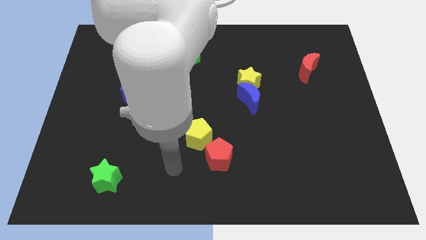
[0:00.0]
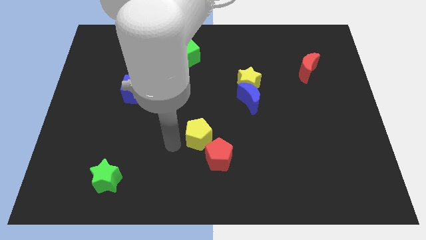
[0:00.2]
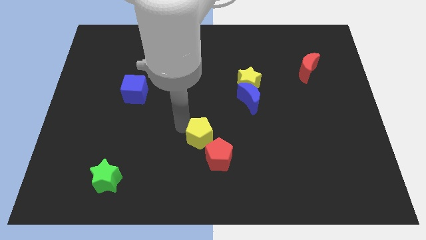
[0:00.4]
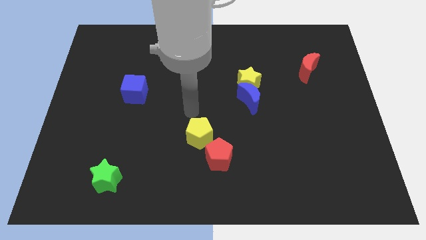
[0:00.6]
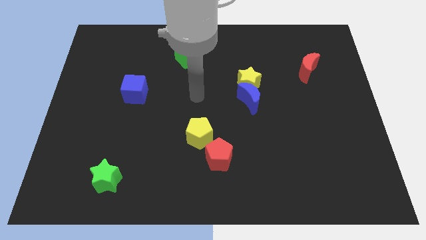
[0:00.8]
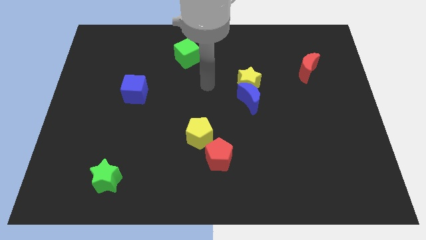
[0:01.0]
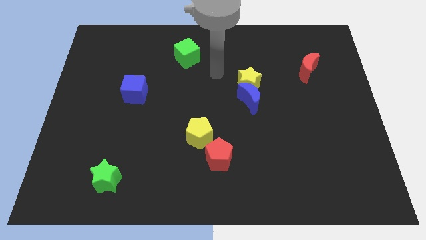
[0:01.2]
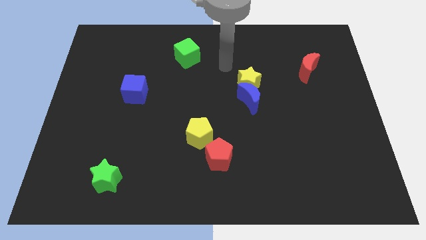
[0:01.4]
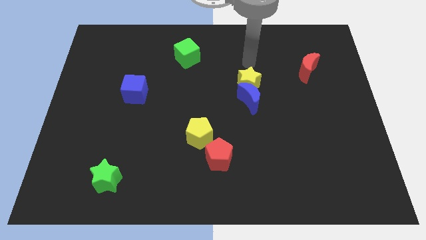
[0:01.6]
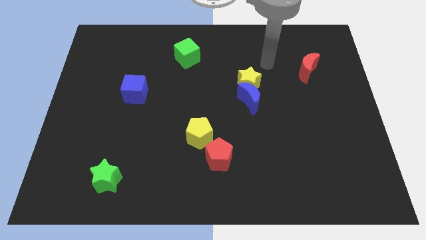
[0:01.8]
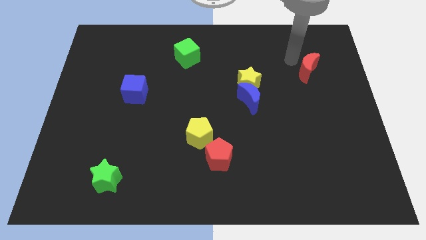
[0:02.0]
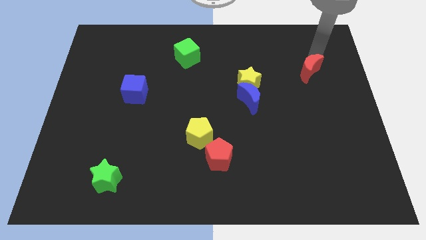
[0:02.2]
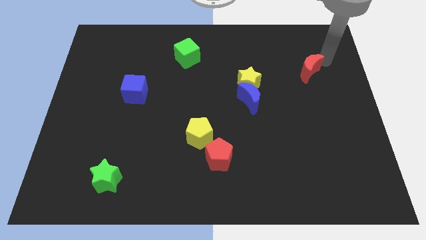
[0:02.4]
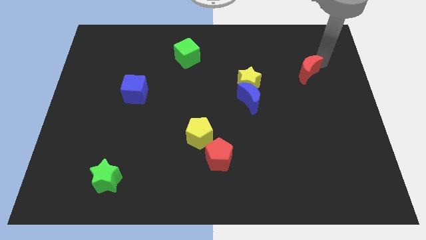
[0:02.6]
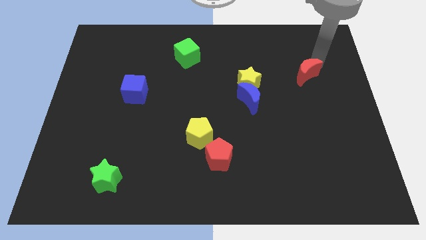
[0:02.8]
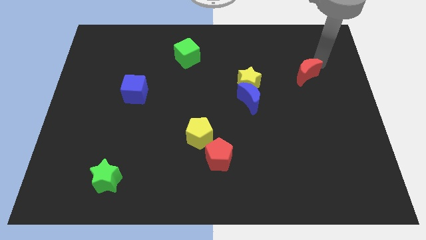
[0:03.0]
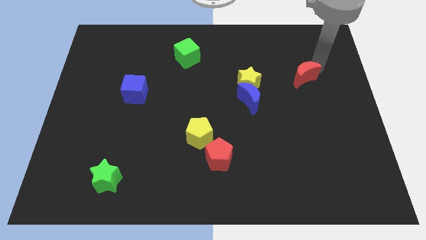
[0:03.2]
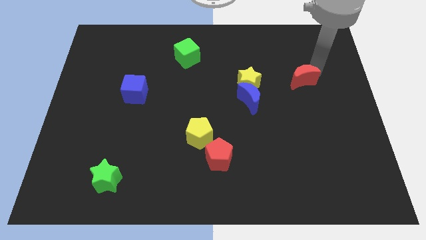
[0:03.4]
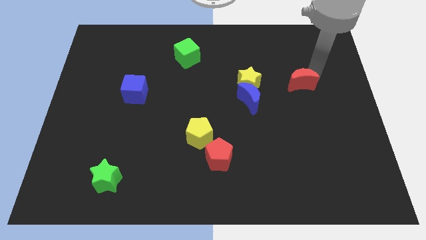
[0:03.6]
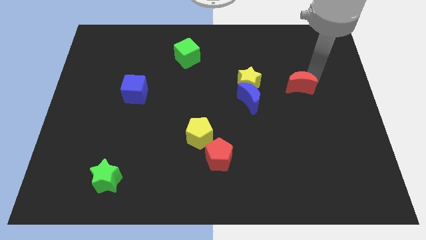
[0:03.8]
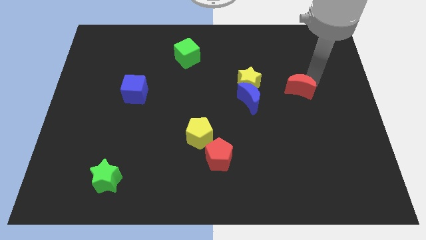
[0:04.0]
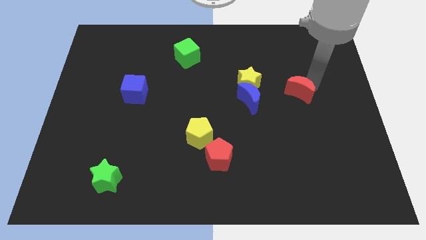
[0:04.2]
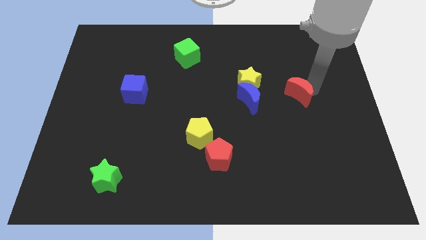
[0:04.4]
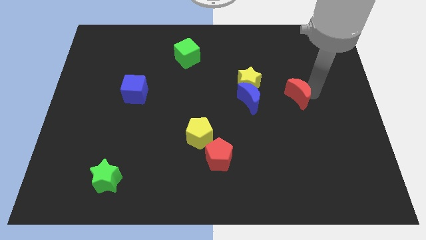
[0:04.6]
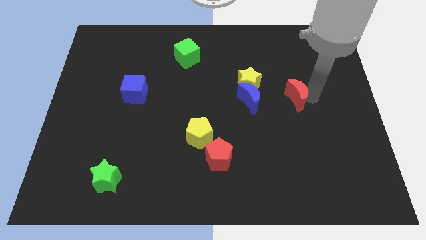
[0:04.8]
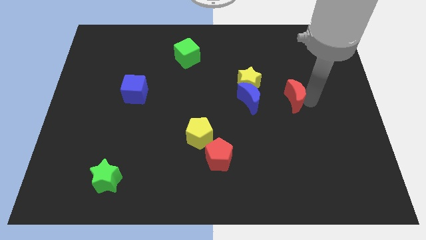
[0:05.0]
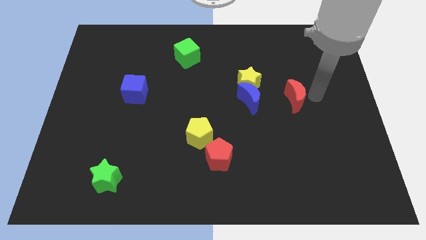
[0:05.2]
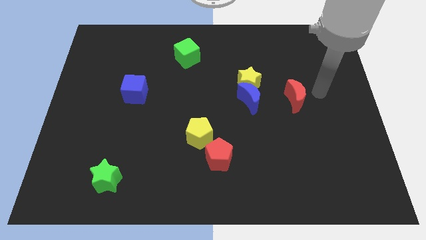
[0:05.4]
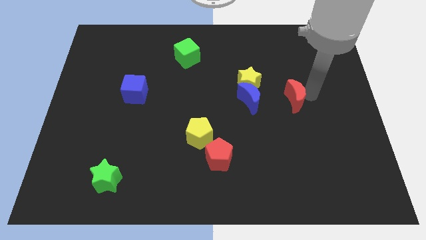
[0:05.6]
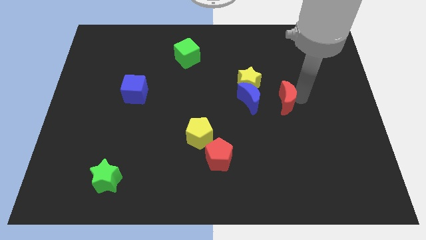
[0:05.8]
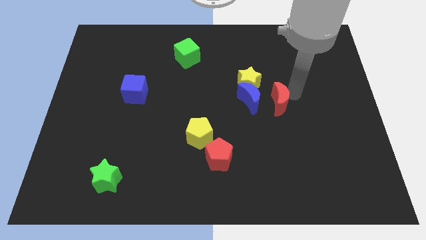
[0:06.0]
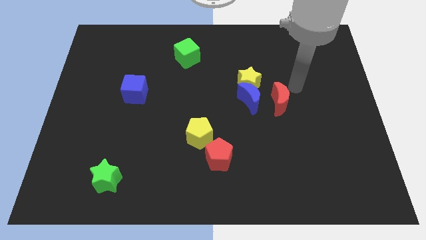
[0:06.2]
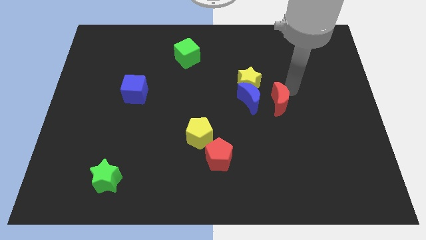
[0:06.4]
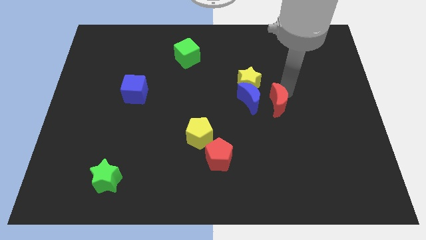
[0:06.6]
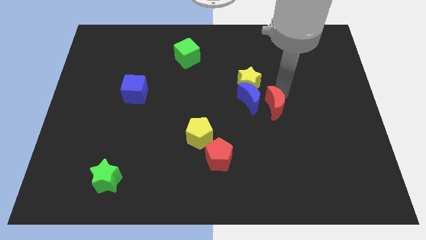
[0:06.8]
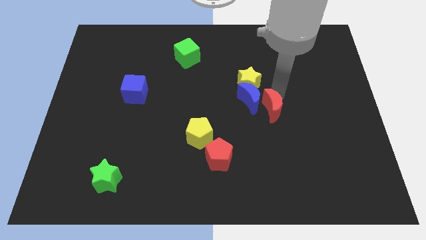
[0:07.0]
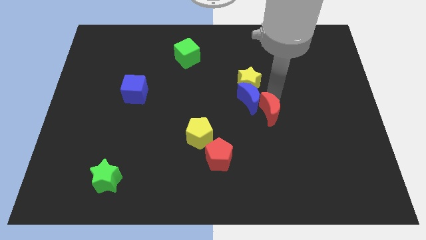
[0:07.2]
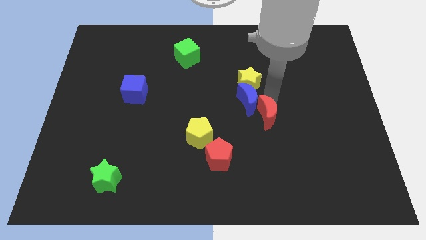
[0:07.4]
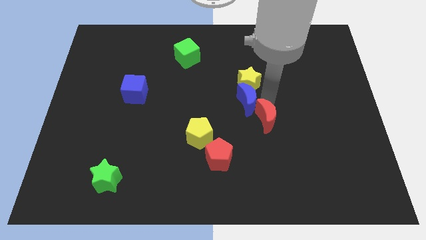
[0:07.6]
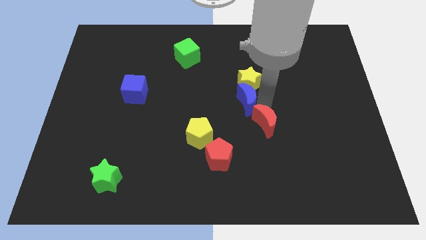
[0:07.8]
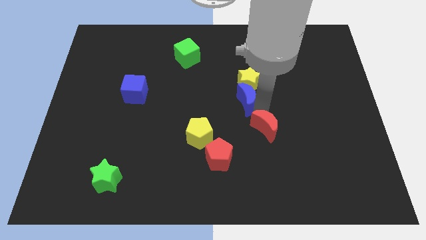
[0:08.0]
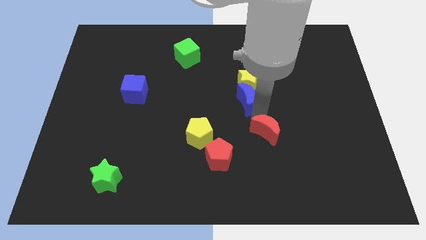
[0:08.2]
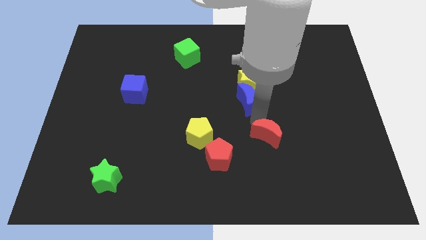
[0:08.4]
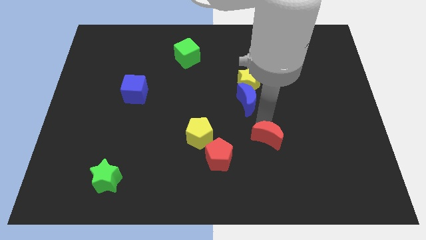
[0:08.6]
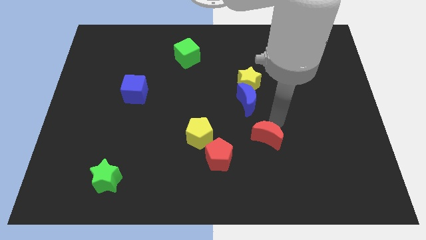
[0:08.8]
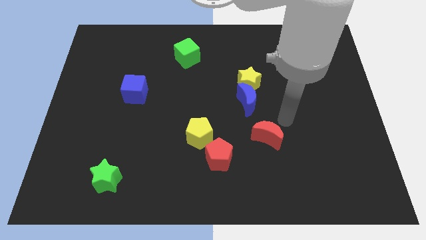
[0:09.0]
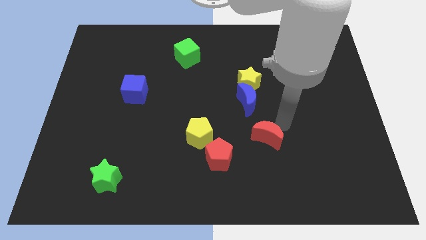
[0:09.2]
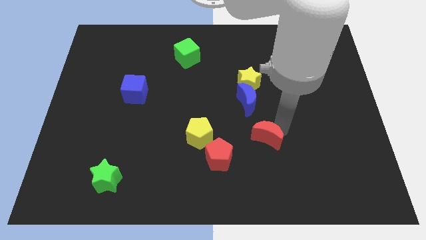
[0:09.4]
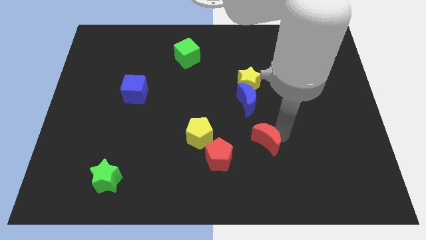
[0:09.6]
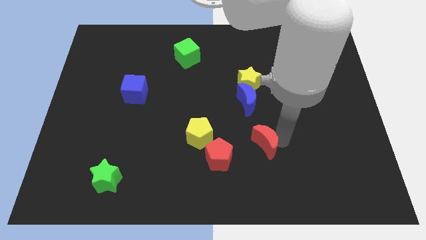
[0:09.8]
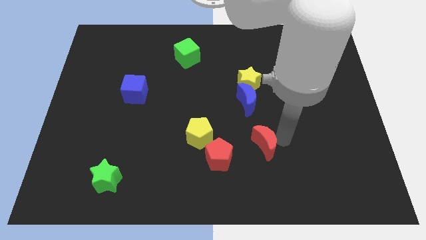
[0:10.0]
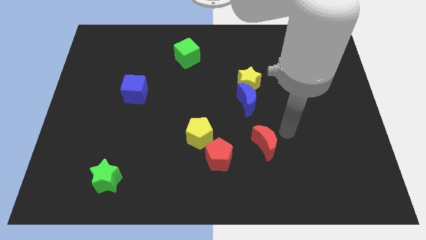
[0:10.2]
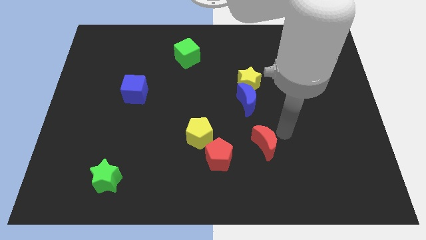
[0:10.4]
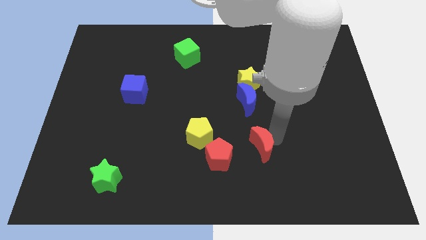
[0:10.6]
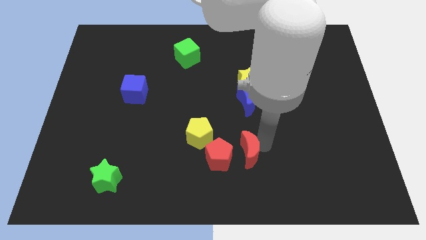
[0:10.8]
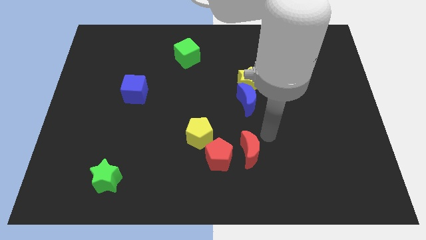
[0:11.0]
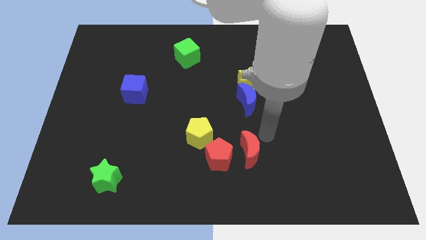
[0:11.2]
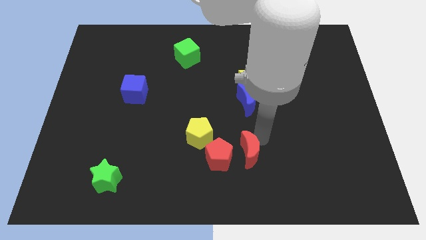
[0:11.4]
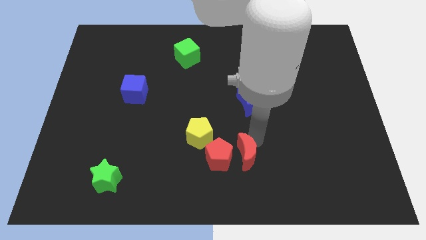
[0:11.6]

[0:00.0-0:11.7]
slide the red moon diagonally down and to the right of the yellow pentagon

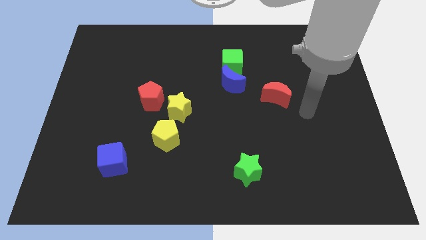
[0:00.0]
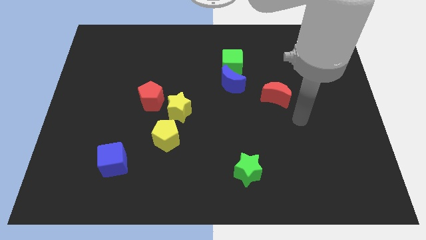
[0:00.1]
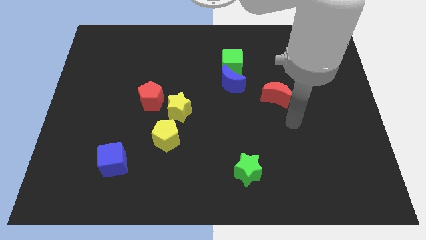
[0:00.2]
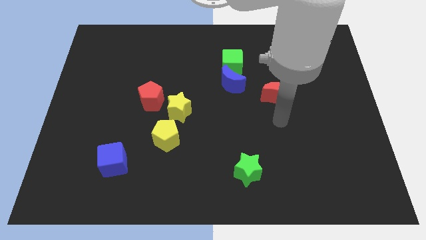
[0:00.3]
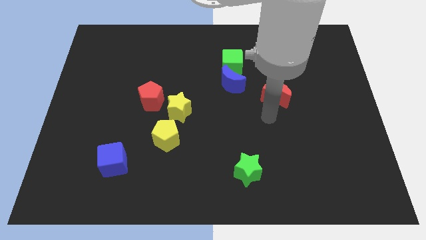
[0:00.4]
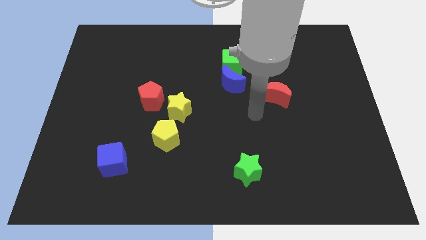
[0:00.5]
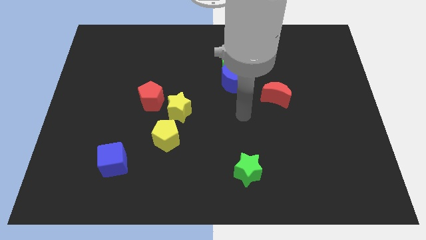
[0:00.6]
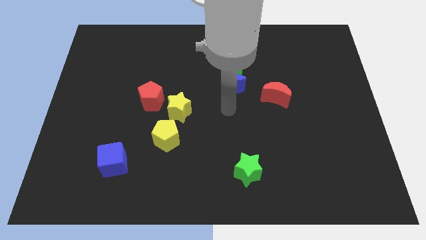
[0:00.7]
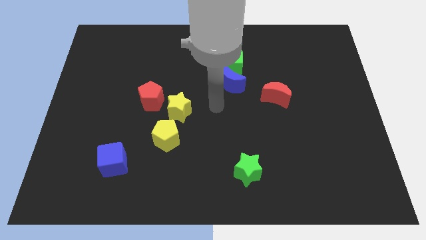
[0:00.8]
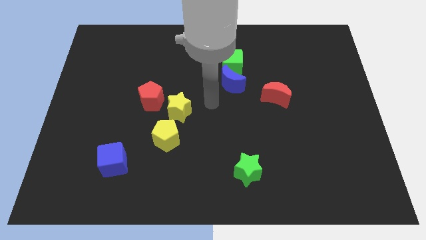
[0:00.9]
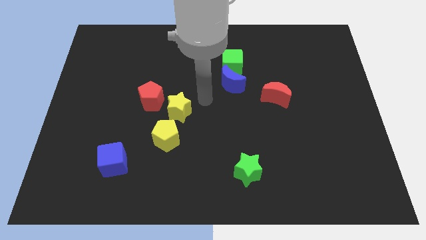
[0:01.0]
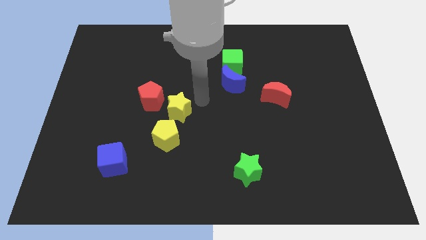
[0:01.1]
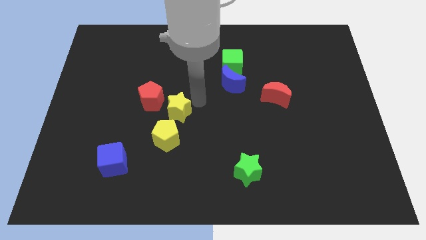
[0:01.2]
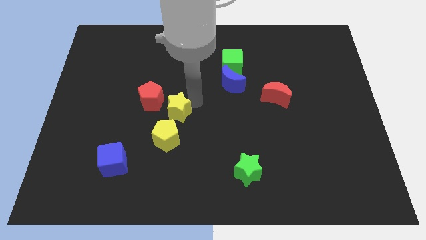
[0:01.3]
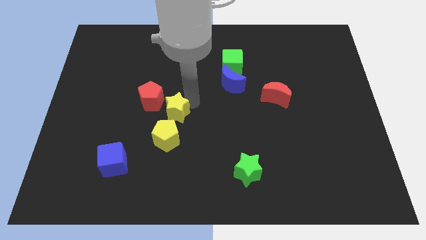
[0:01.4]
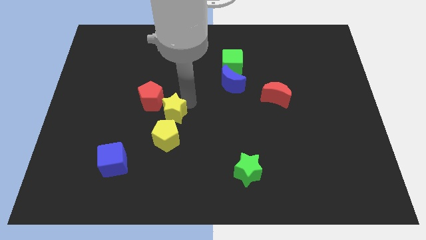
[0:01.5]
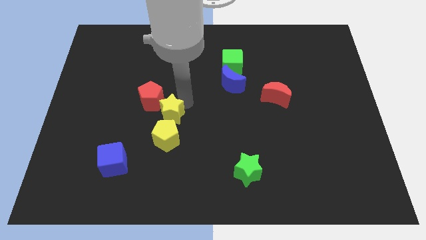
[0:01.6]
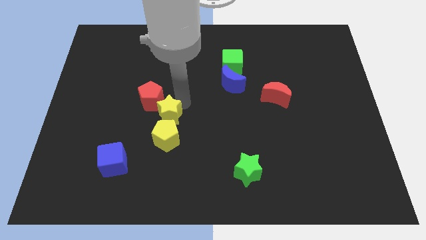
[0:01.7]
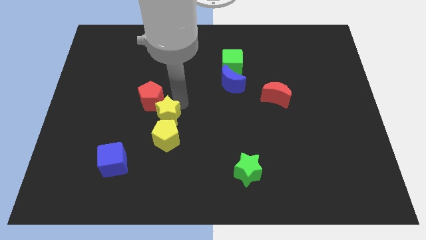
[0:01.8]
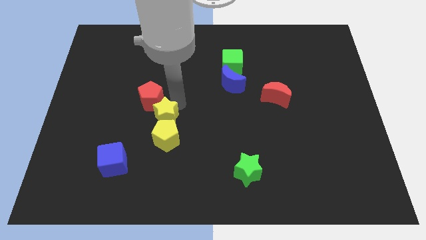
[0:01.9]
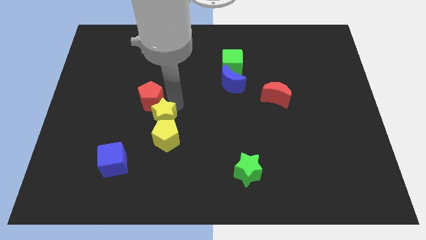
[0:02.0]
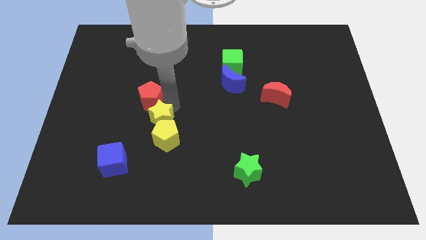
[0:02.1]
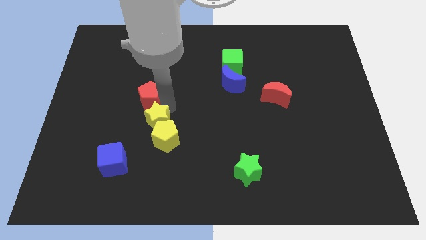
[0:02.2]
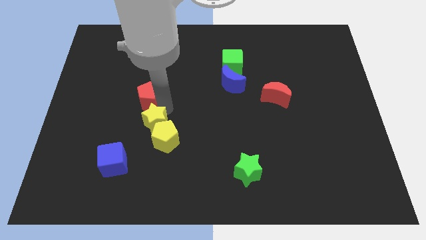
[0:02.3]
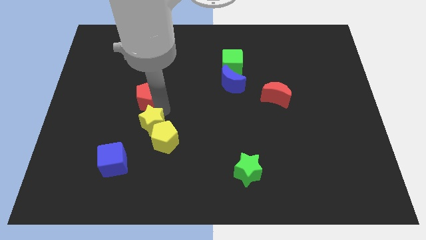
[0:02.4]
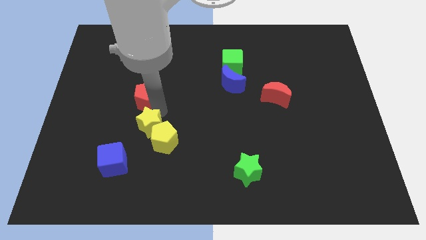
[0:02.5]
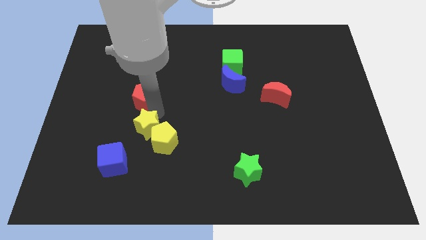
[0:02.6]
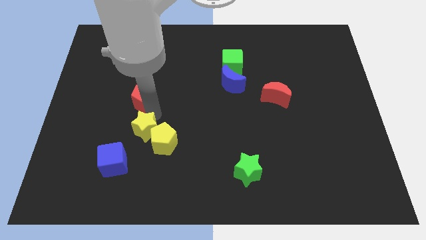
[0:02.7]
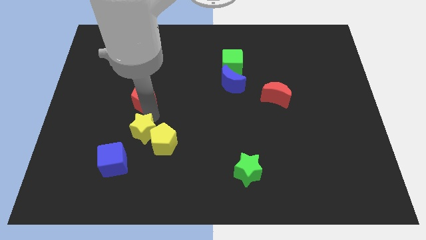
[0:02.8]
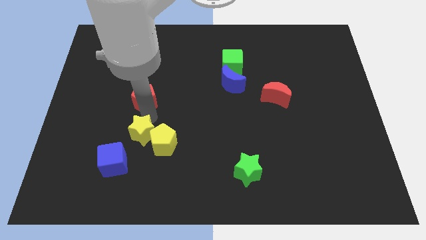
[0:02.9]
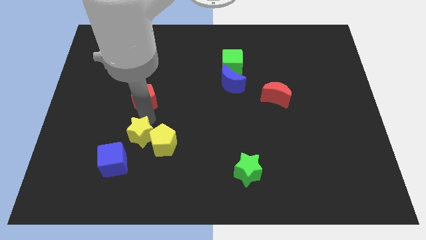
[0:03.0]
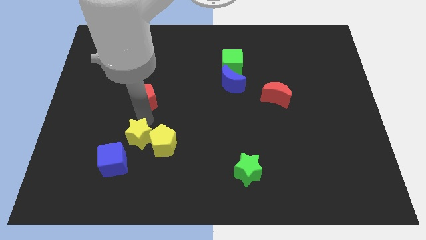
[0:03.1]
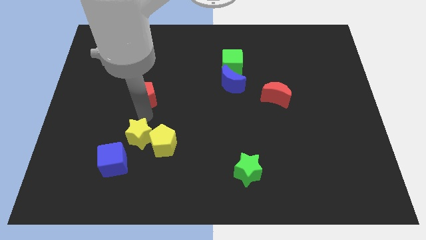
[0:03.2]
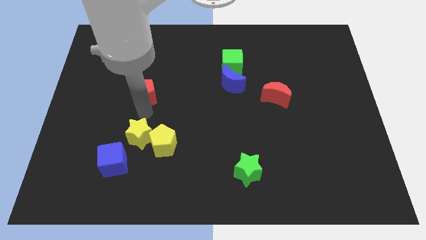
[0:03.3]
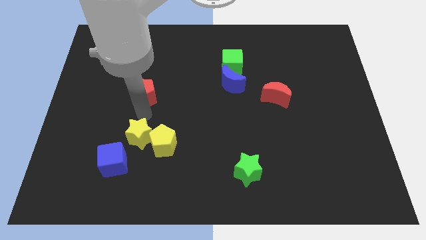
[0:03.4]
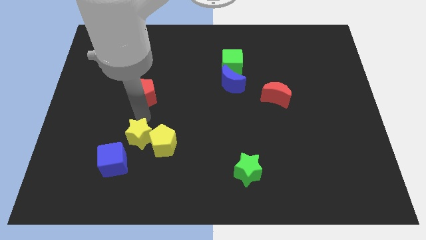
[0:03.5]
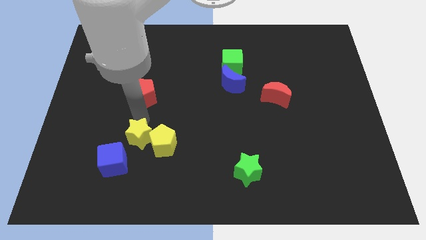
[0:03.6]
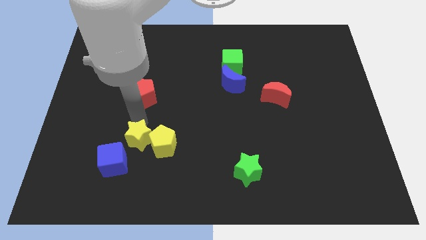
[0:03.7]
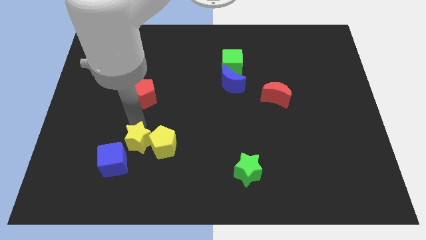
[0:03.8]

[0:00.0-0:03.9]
put the yellow star diagonally down and to the left of the yellow pentagon
